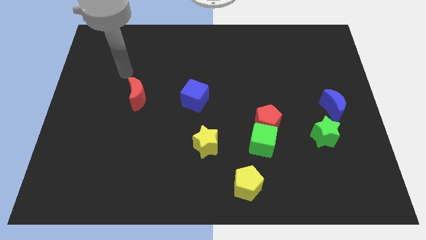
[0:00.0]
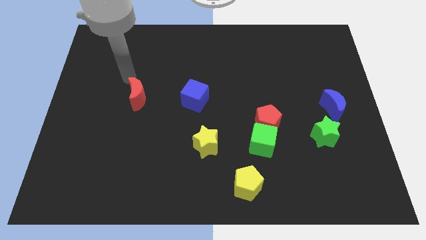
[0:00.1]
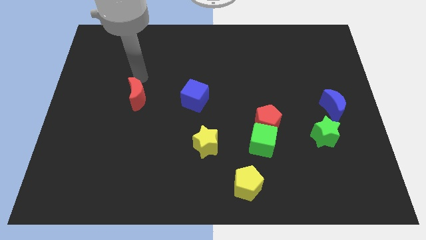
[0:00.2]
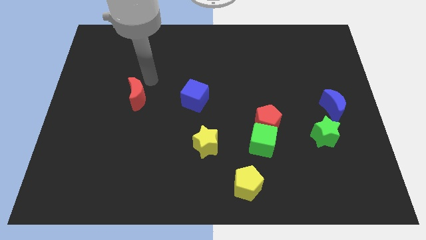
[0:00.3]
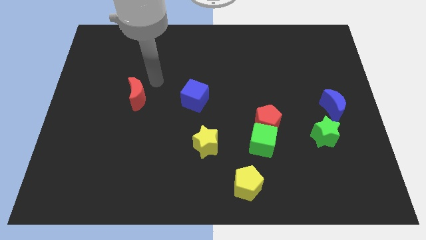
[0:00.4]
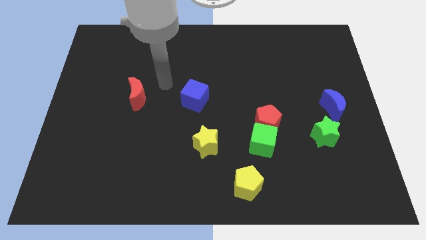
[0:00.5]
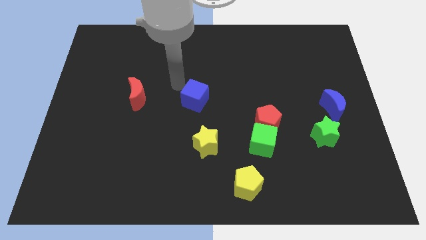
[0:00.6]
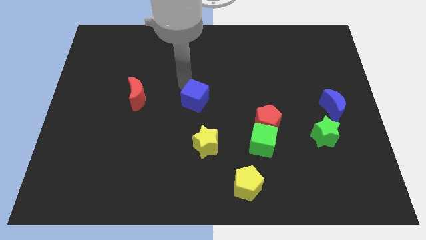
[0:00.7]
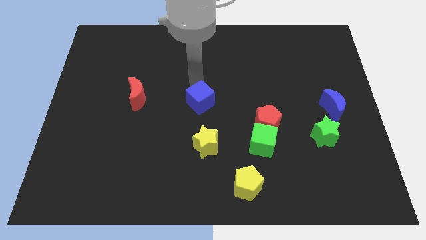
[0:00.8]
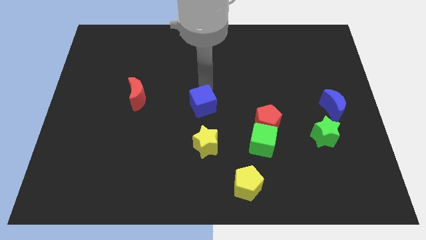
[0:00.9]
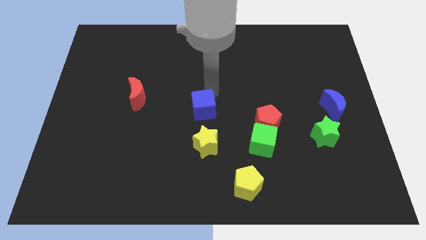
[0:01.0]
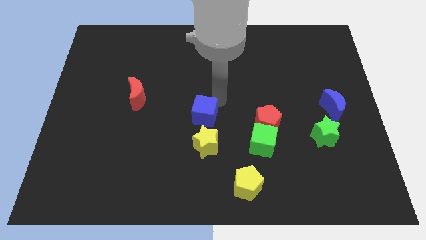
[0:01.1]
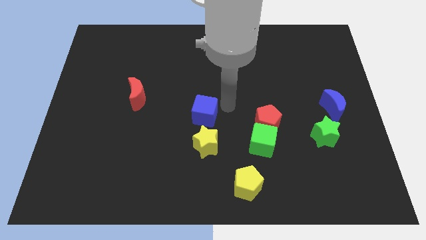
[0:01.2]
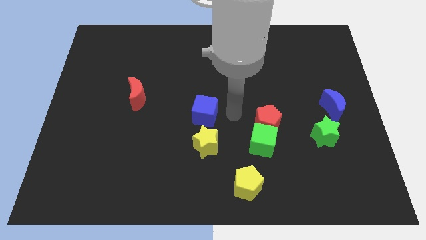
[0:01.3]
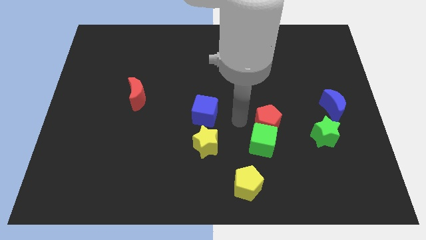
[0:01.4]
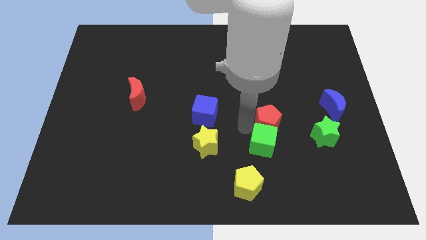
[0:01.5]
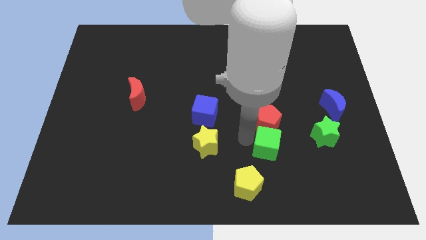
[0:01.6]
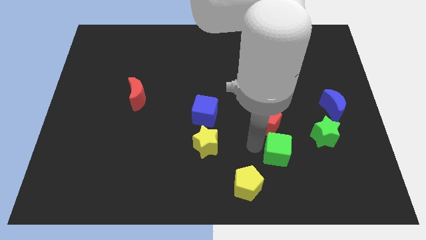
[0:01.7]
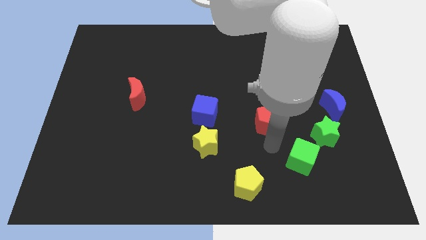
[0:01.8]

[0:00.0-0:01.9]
move the red pentagon away from the green cube

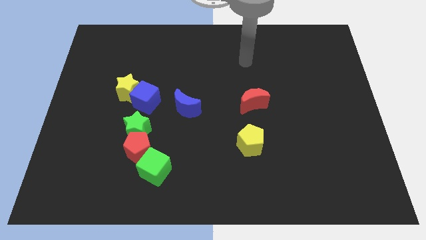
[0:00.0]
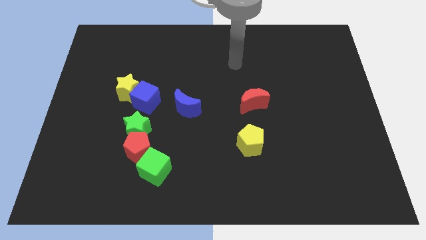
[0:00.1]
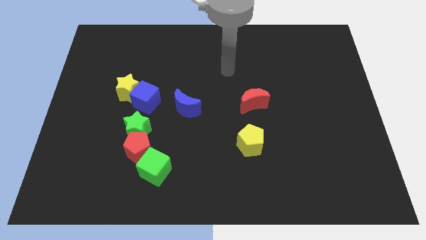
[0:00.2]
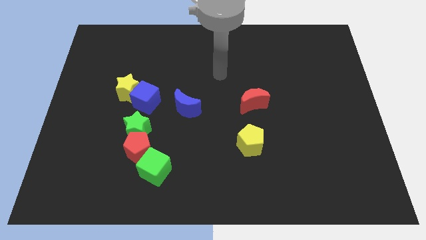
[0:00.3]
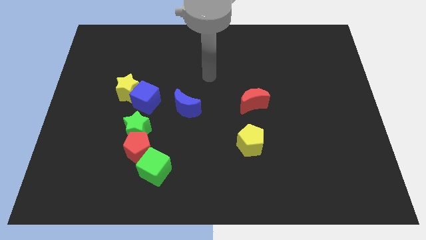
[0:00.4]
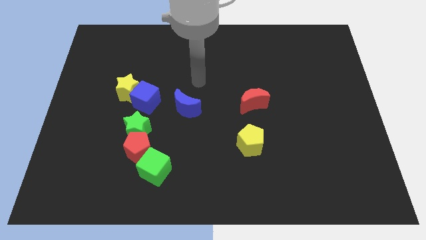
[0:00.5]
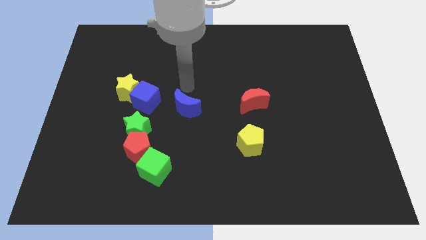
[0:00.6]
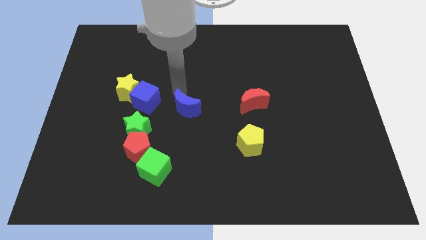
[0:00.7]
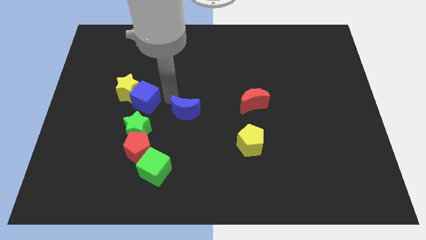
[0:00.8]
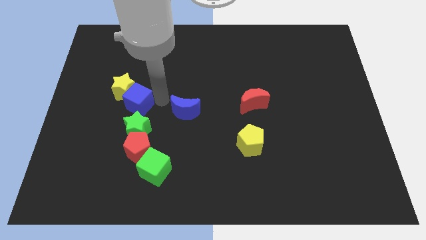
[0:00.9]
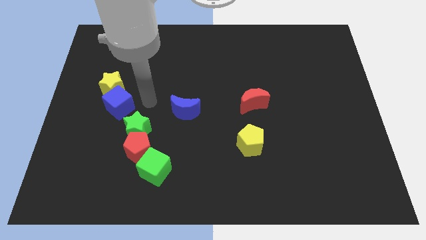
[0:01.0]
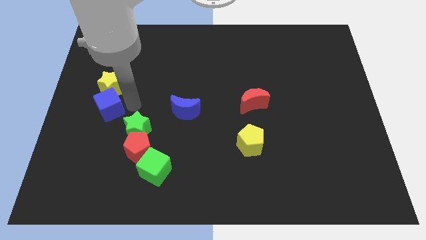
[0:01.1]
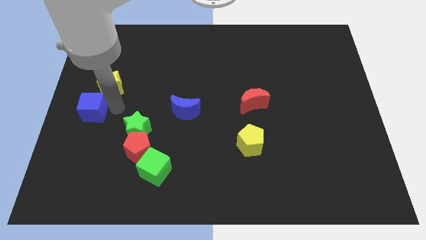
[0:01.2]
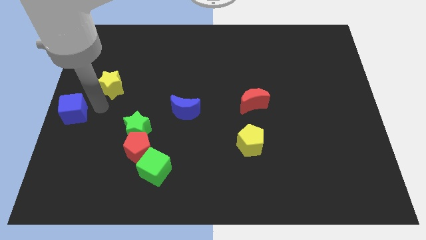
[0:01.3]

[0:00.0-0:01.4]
pull the yellow star apart from the blue cube

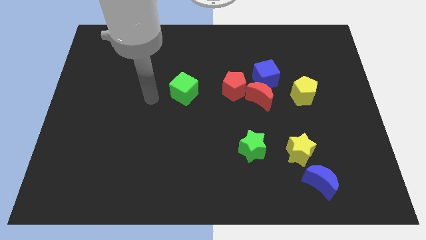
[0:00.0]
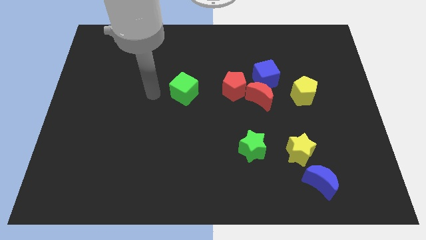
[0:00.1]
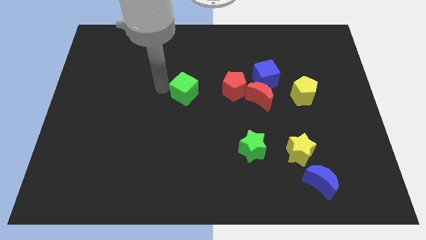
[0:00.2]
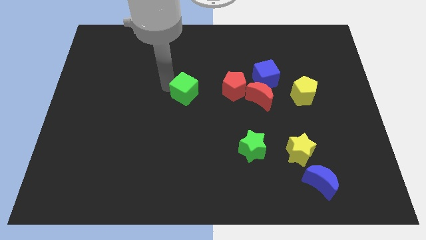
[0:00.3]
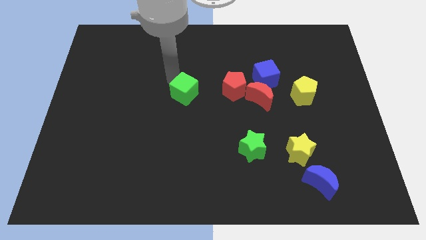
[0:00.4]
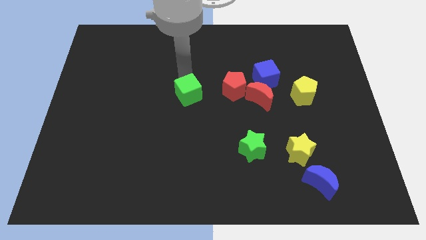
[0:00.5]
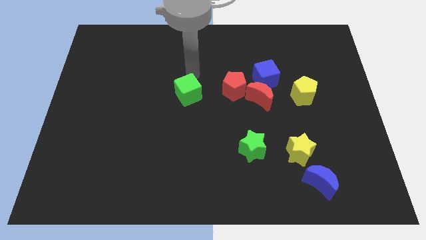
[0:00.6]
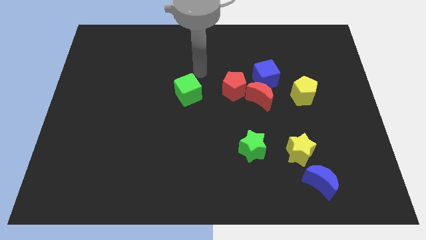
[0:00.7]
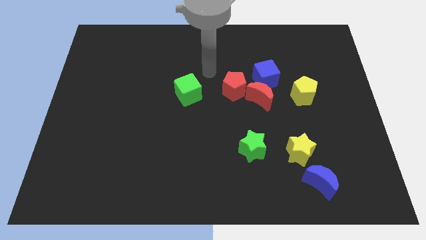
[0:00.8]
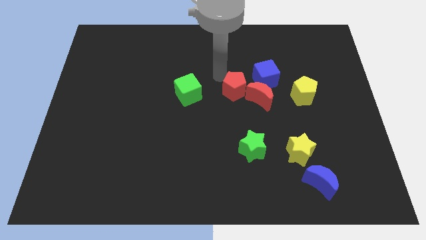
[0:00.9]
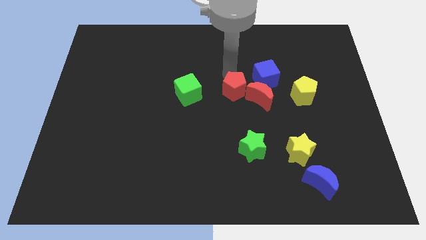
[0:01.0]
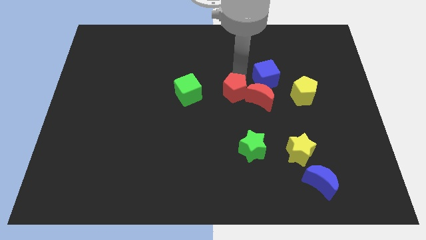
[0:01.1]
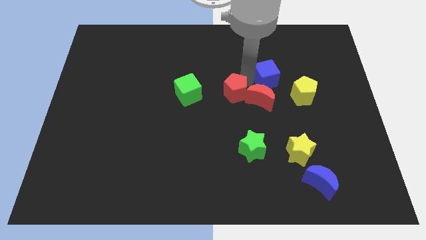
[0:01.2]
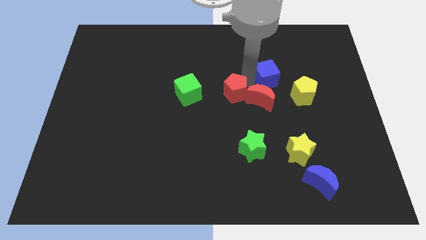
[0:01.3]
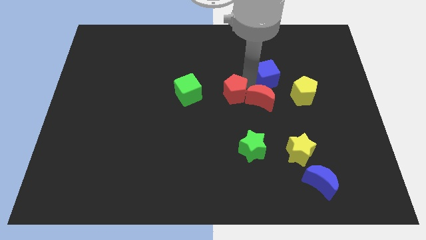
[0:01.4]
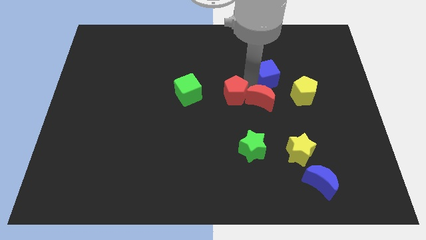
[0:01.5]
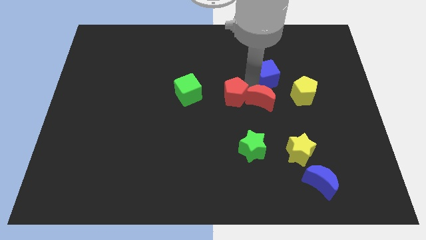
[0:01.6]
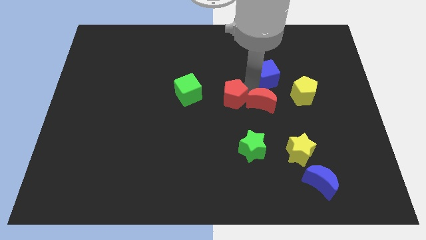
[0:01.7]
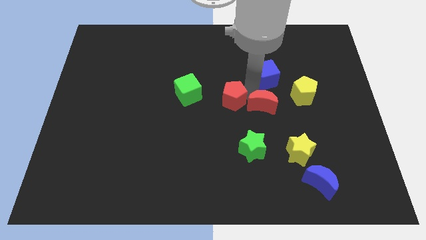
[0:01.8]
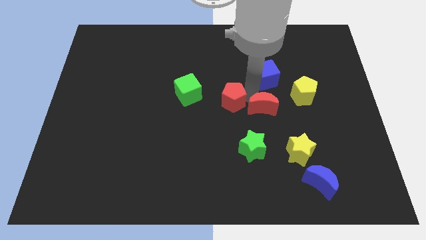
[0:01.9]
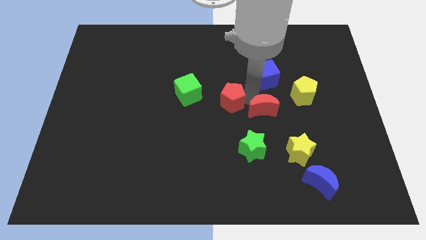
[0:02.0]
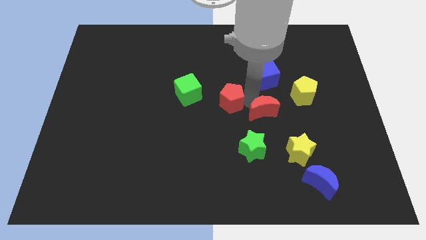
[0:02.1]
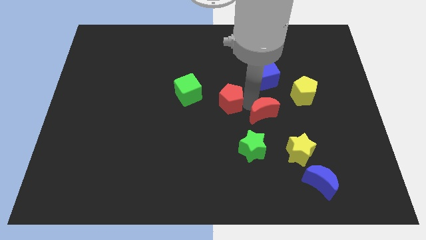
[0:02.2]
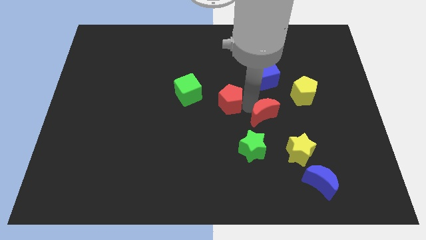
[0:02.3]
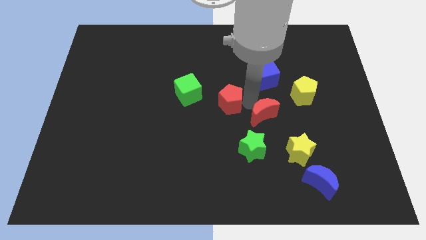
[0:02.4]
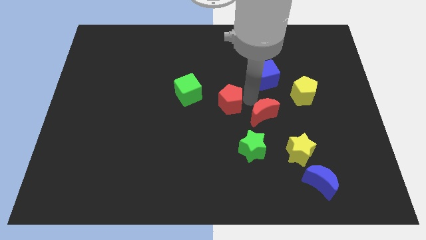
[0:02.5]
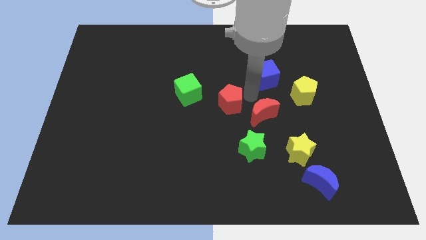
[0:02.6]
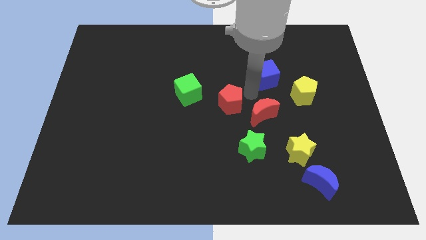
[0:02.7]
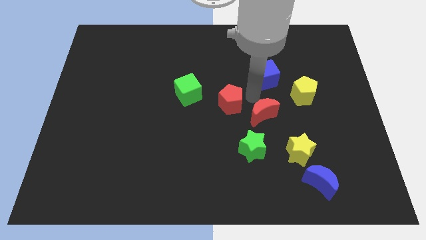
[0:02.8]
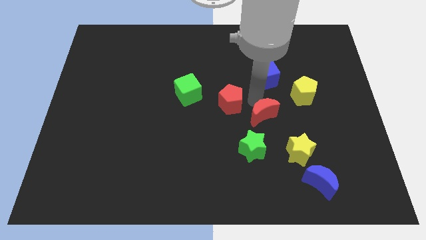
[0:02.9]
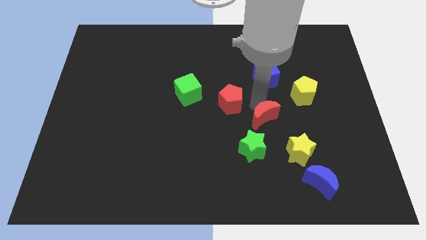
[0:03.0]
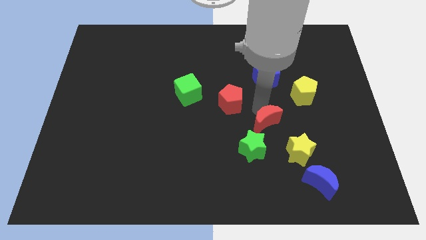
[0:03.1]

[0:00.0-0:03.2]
pull the red moon apart from the blue cube and red pentagon

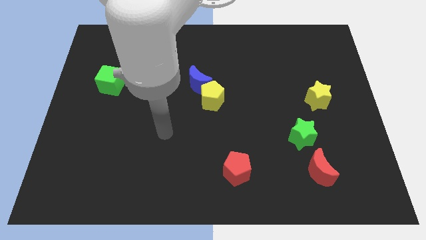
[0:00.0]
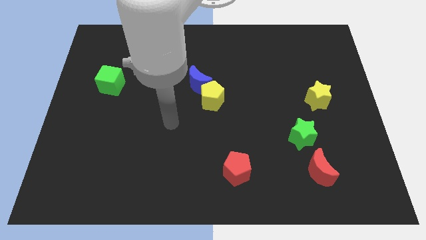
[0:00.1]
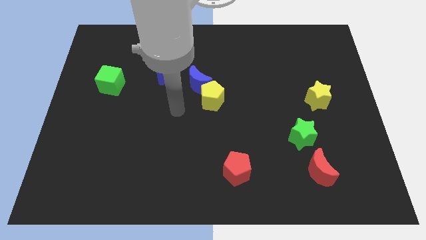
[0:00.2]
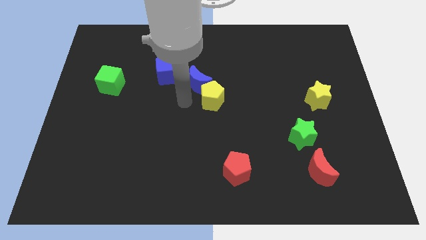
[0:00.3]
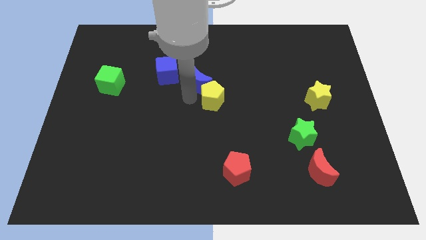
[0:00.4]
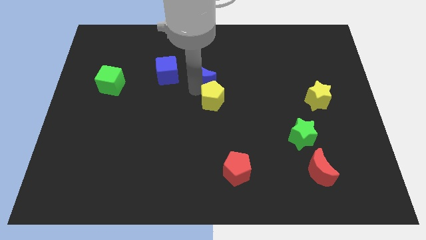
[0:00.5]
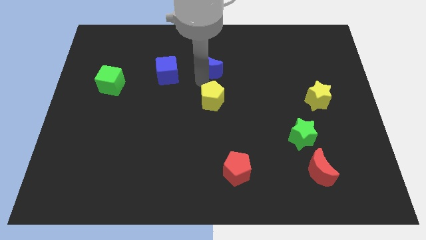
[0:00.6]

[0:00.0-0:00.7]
move the yellow pentagon away from the blue moon

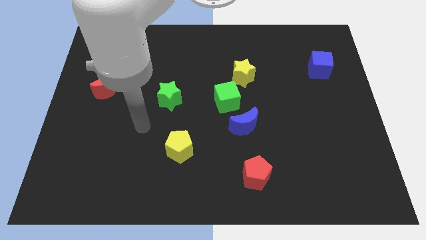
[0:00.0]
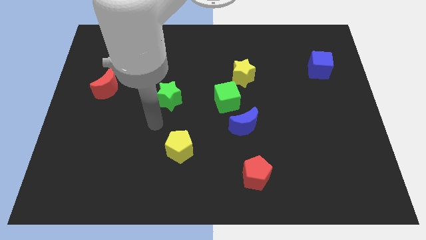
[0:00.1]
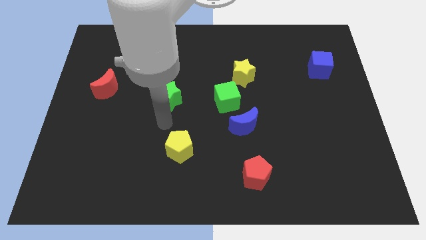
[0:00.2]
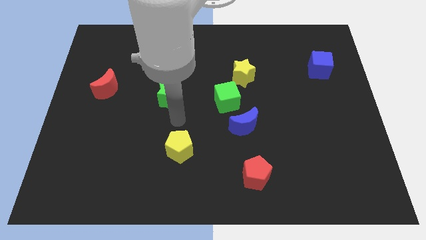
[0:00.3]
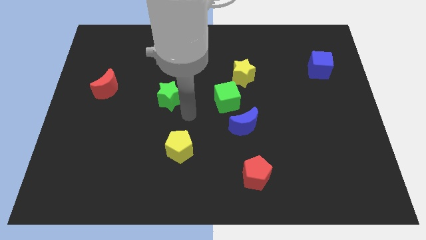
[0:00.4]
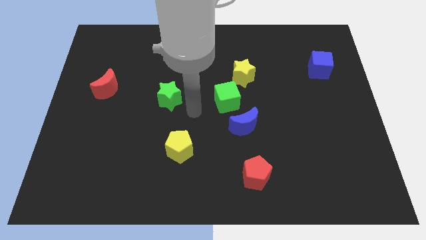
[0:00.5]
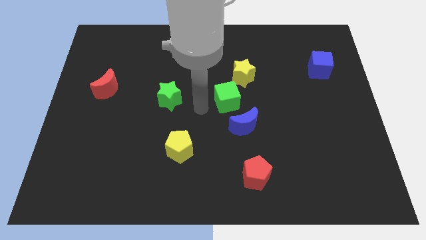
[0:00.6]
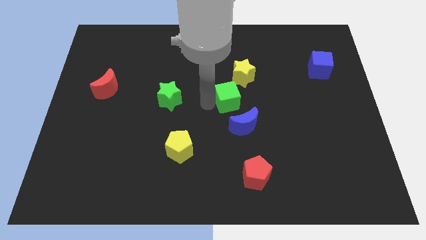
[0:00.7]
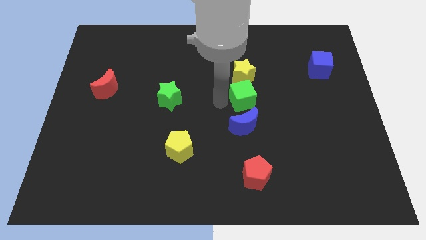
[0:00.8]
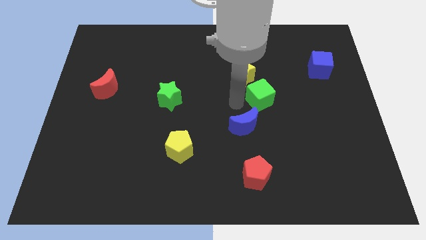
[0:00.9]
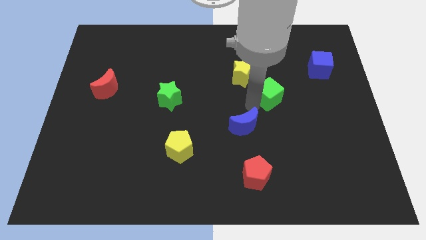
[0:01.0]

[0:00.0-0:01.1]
move the blue moon away from the green cube

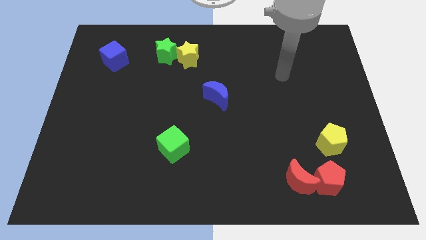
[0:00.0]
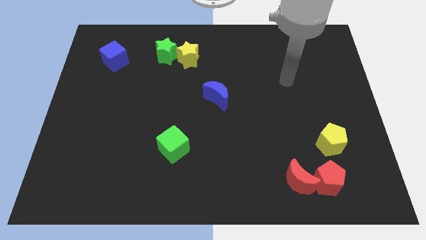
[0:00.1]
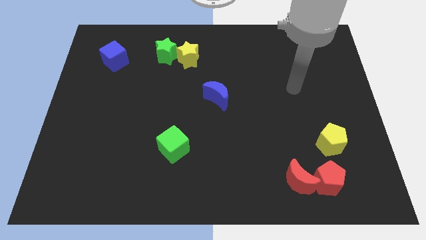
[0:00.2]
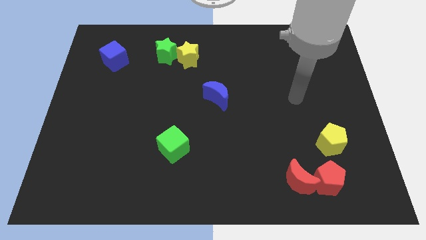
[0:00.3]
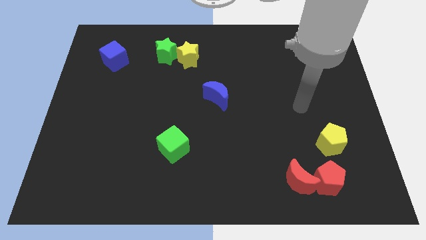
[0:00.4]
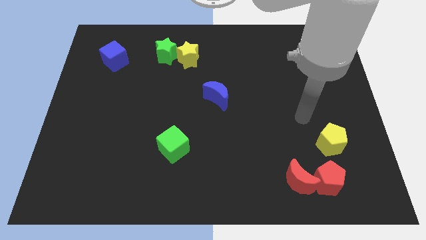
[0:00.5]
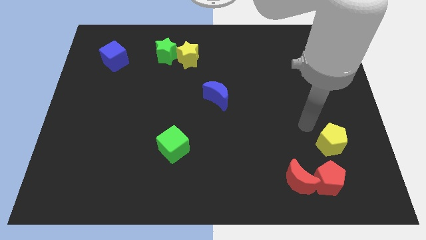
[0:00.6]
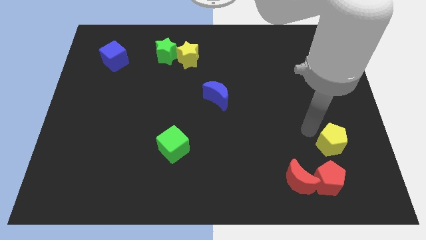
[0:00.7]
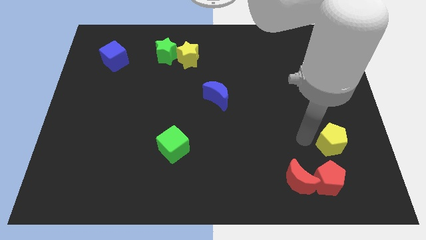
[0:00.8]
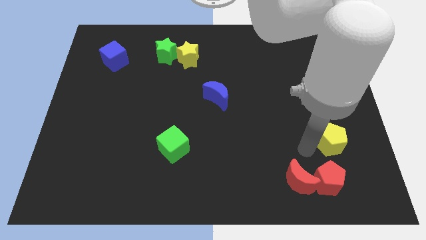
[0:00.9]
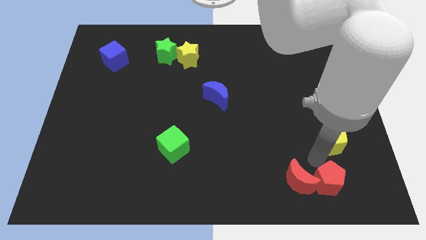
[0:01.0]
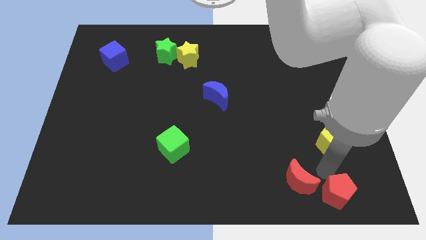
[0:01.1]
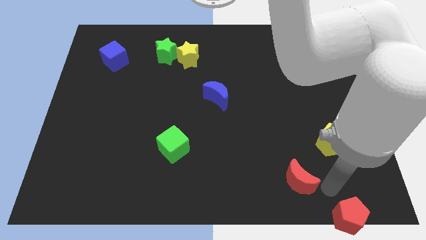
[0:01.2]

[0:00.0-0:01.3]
move the red moon away from the red pentagon
